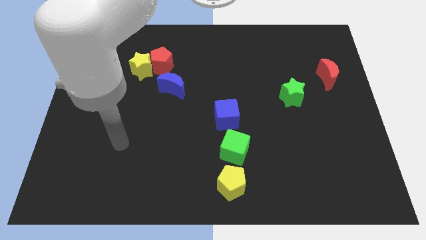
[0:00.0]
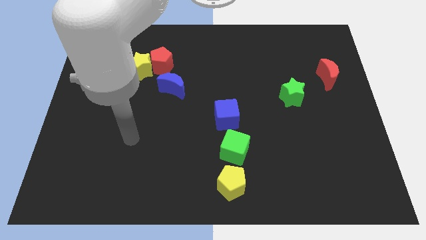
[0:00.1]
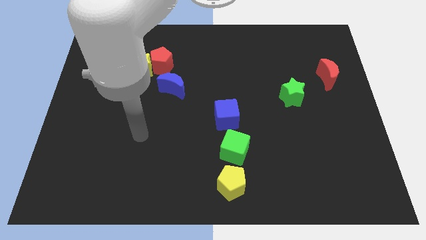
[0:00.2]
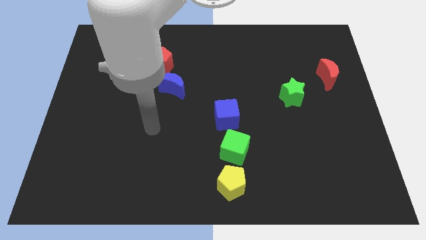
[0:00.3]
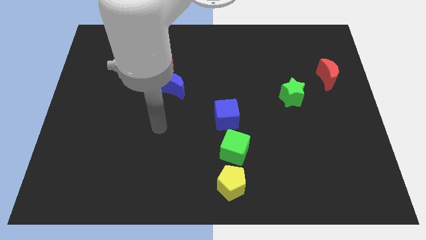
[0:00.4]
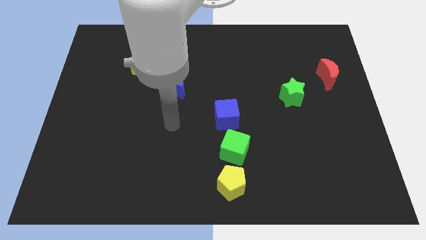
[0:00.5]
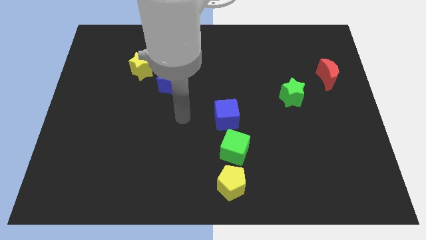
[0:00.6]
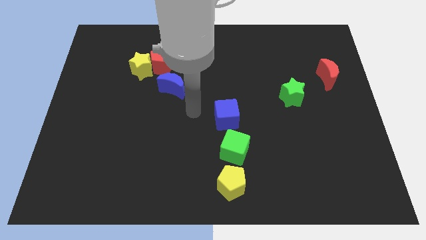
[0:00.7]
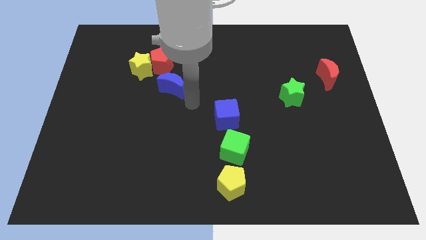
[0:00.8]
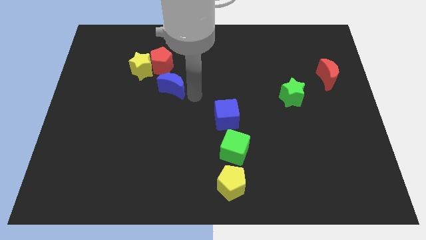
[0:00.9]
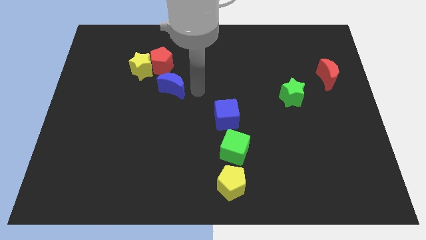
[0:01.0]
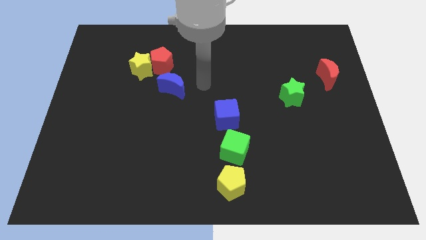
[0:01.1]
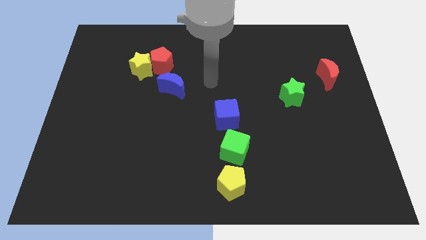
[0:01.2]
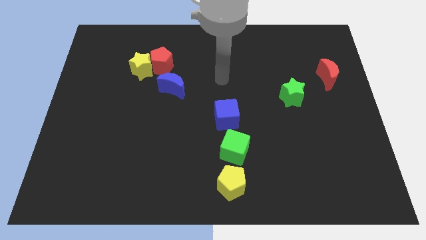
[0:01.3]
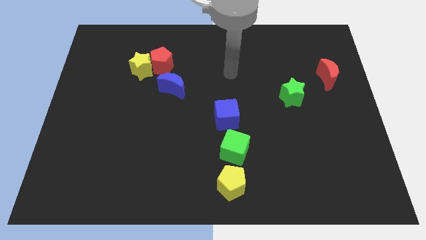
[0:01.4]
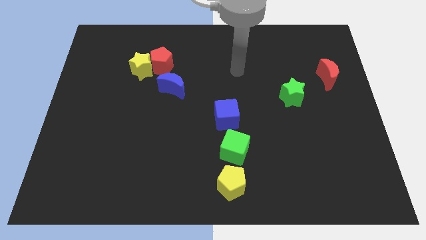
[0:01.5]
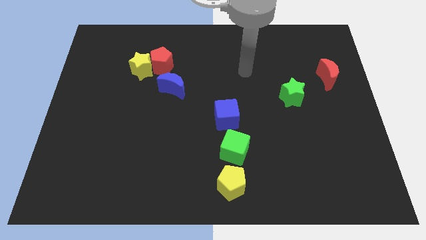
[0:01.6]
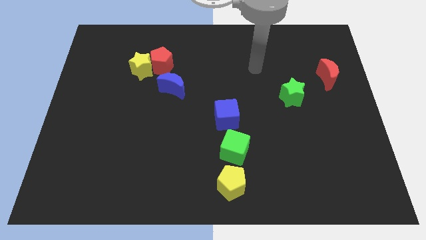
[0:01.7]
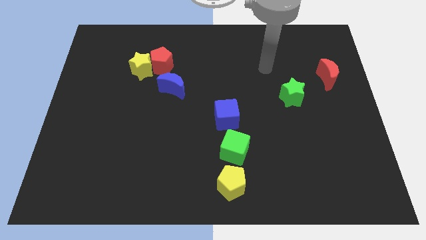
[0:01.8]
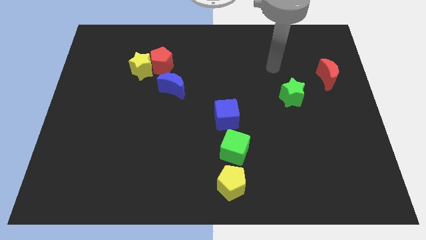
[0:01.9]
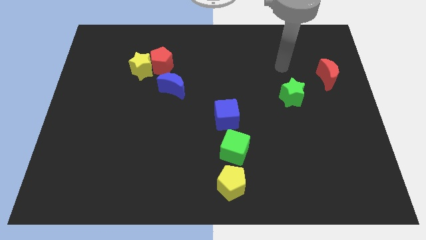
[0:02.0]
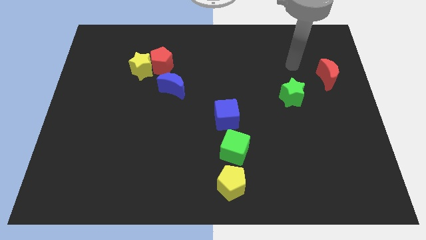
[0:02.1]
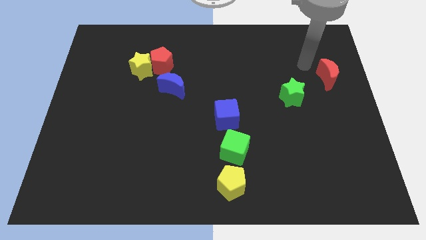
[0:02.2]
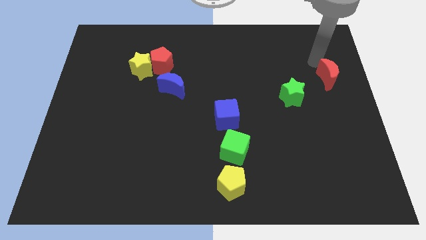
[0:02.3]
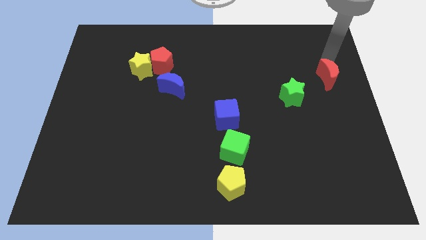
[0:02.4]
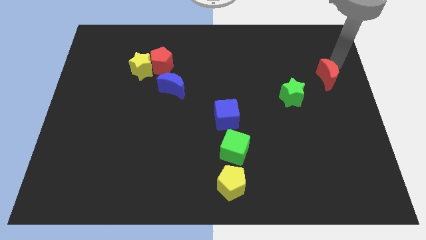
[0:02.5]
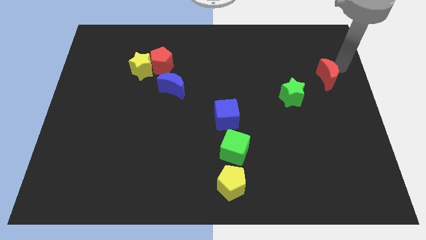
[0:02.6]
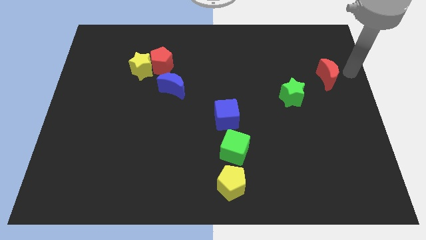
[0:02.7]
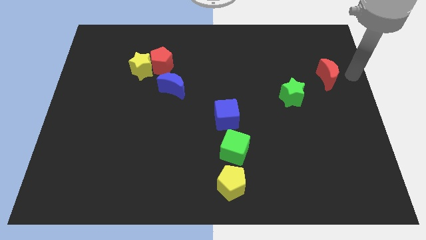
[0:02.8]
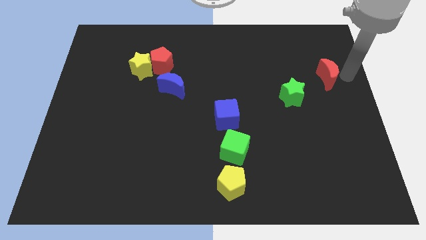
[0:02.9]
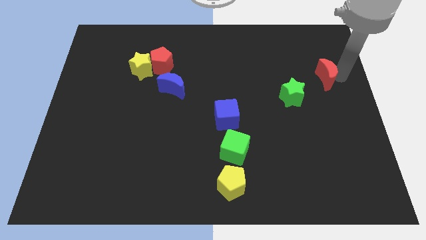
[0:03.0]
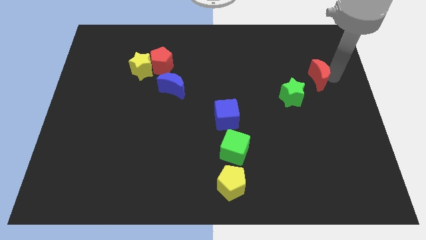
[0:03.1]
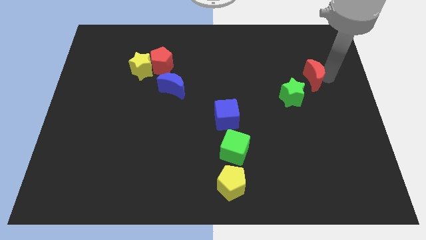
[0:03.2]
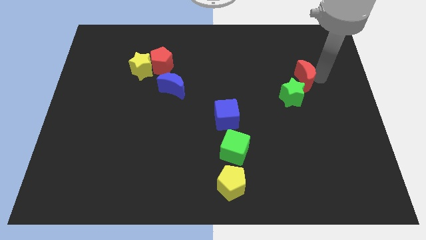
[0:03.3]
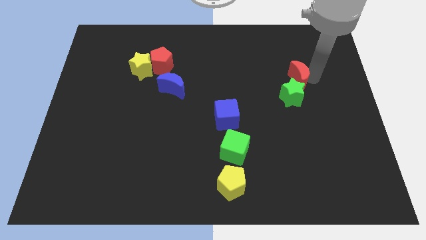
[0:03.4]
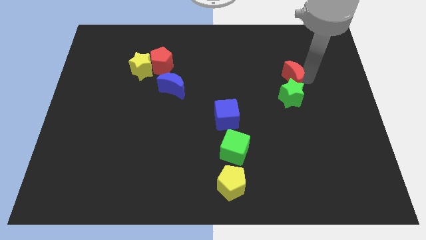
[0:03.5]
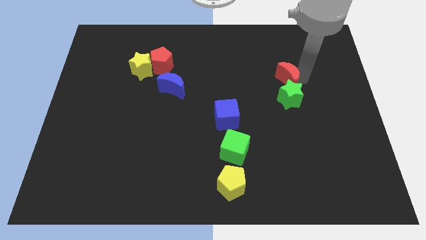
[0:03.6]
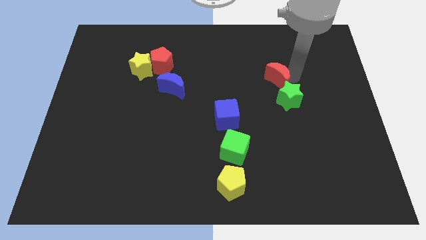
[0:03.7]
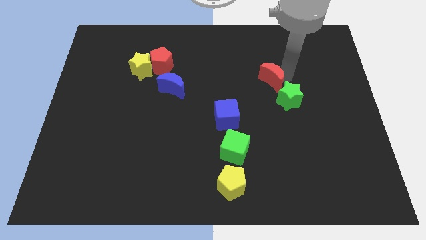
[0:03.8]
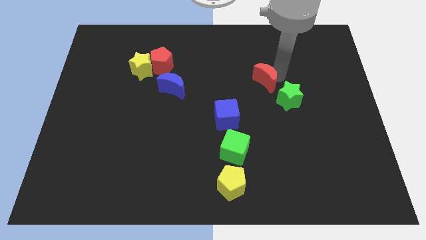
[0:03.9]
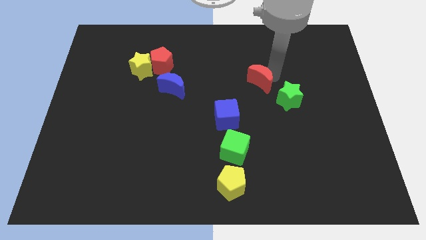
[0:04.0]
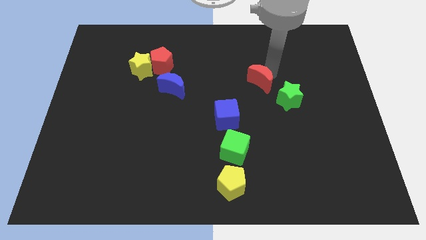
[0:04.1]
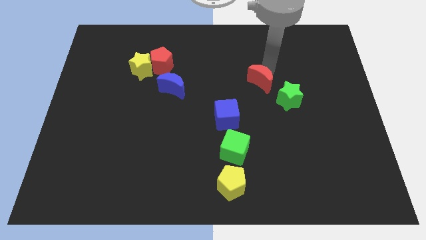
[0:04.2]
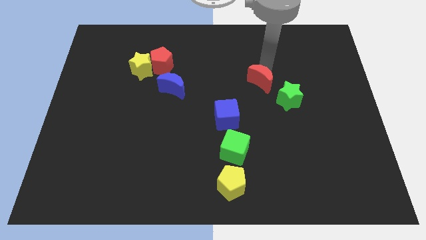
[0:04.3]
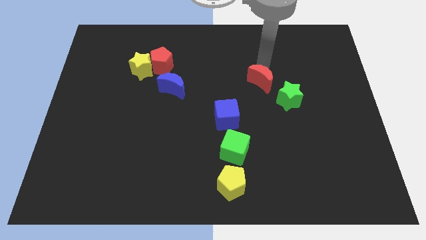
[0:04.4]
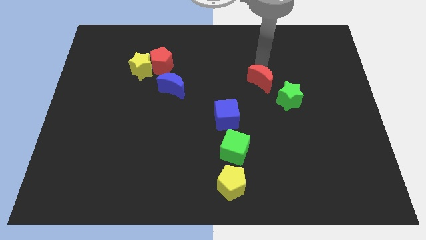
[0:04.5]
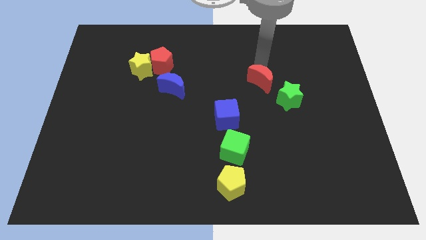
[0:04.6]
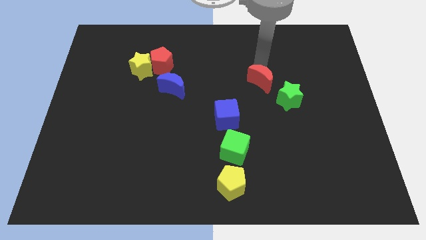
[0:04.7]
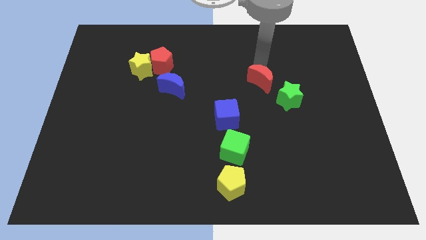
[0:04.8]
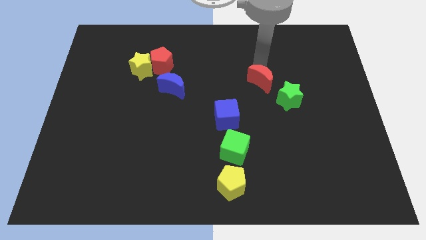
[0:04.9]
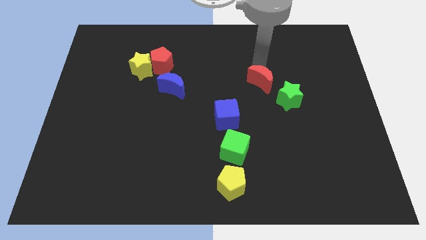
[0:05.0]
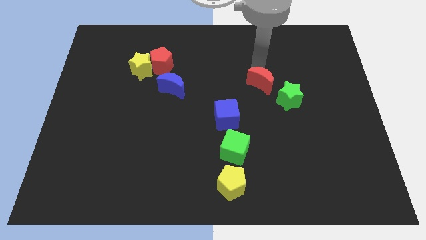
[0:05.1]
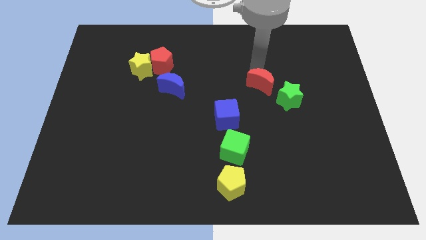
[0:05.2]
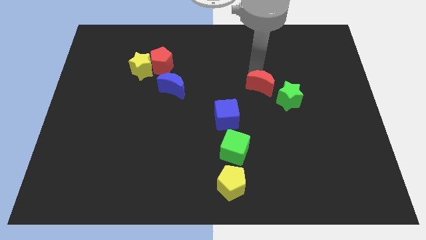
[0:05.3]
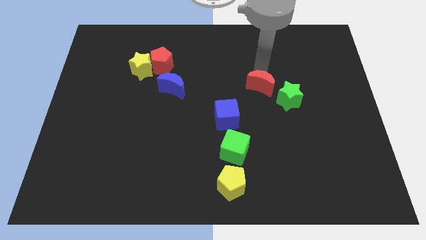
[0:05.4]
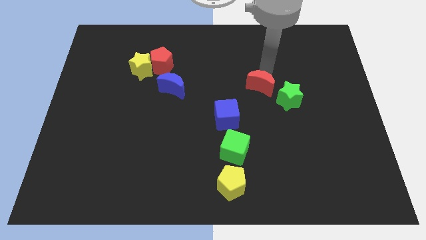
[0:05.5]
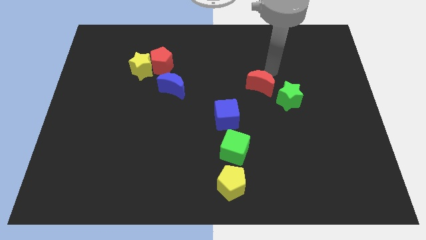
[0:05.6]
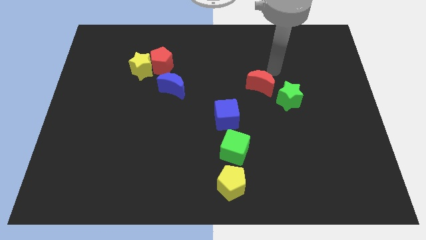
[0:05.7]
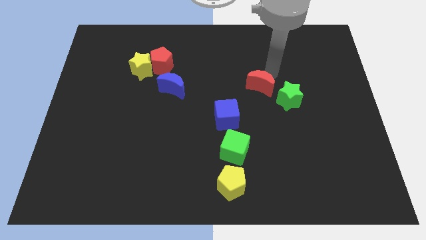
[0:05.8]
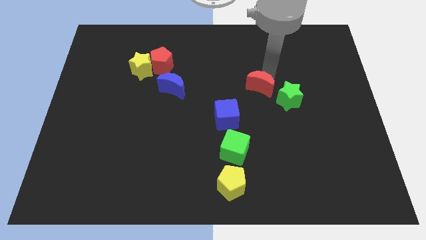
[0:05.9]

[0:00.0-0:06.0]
move the red moon diagonally up and to the right of the blue cube

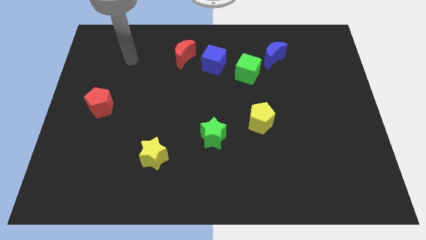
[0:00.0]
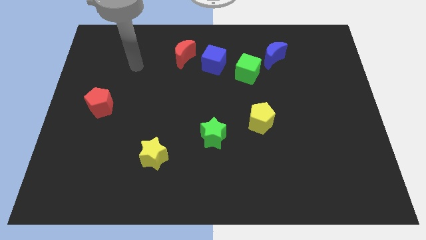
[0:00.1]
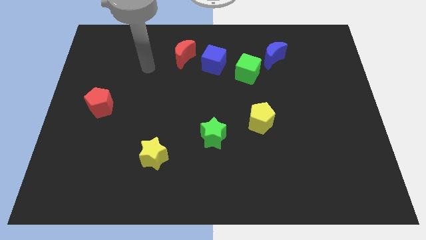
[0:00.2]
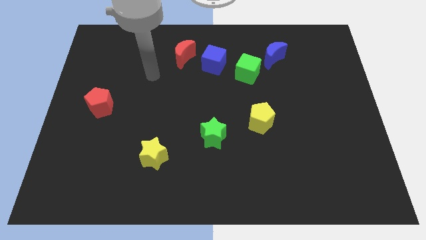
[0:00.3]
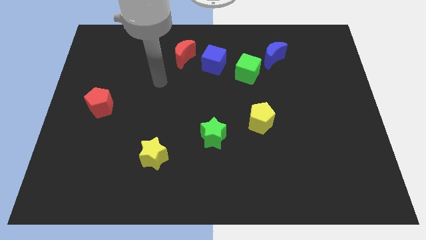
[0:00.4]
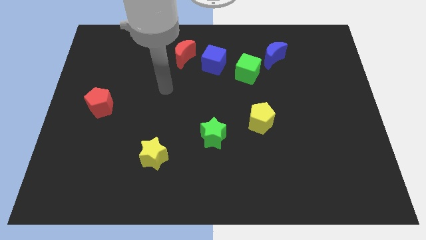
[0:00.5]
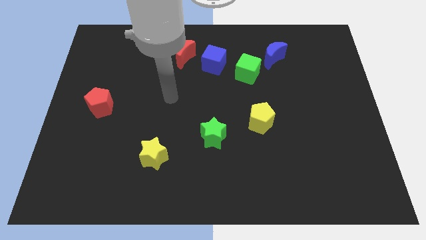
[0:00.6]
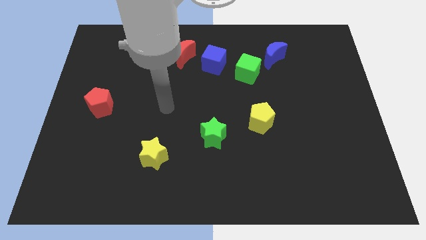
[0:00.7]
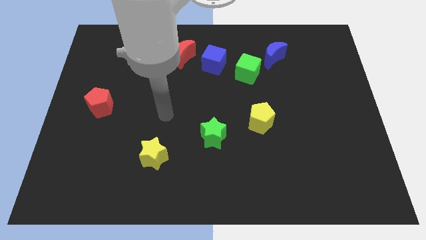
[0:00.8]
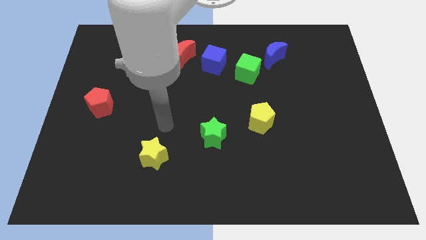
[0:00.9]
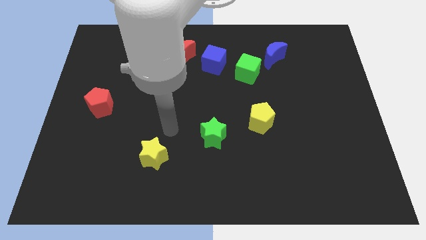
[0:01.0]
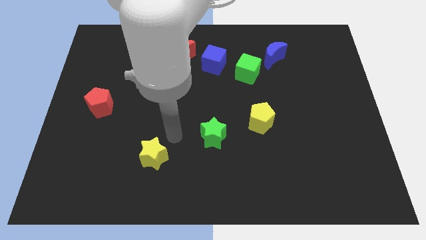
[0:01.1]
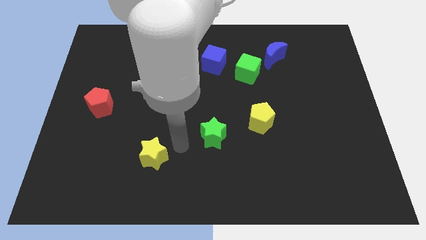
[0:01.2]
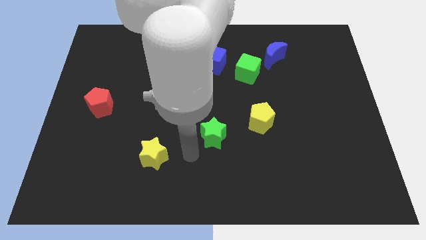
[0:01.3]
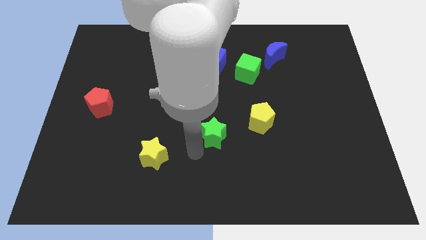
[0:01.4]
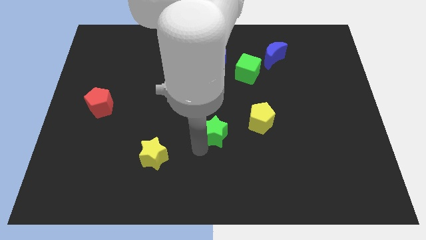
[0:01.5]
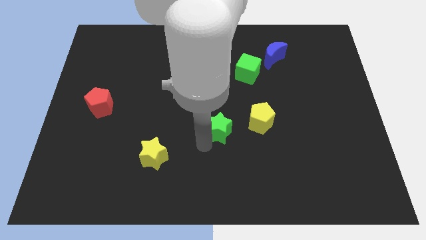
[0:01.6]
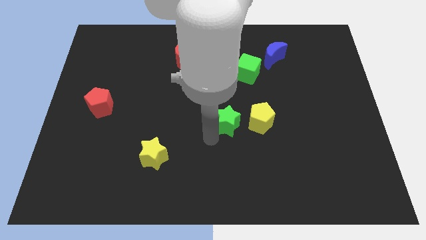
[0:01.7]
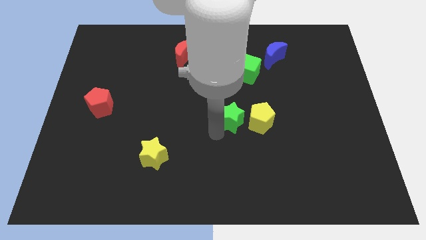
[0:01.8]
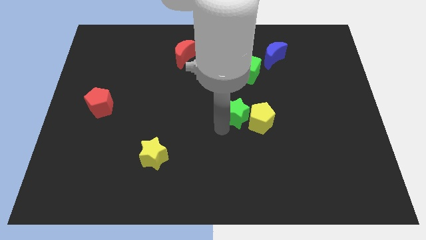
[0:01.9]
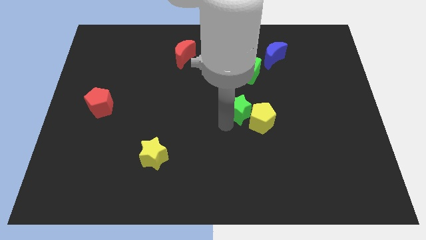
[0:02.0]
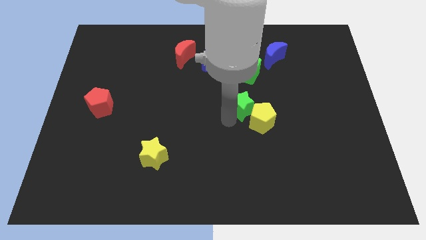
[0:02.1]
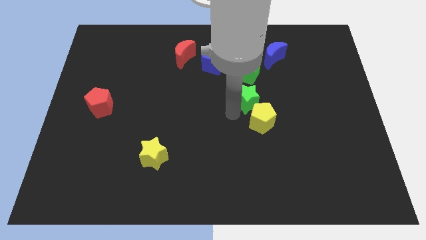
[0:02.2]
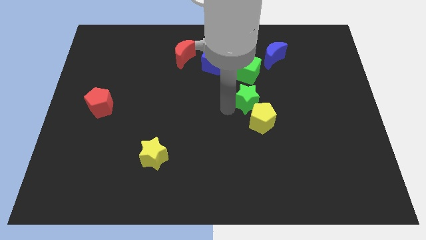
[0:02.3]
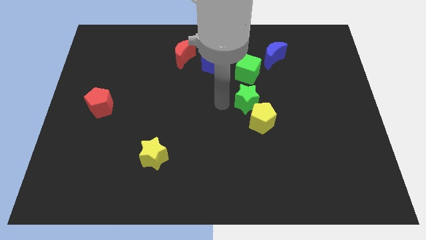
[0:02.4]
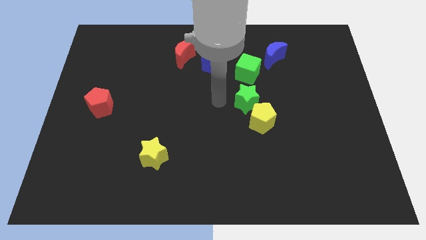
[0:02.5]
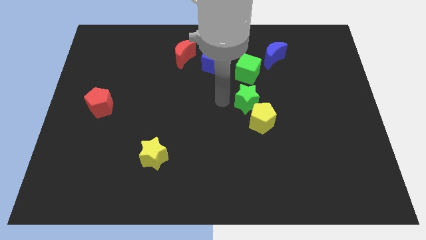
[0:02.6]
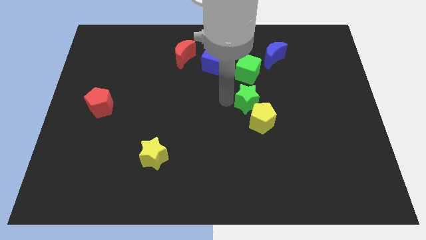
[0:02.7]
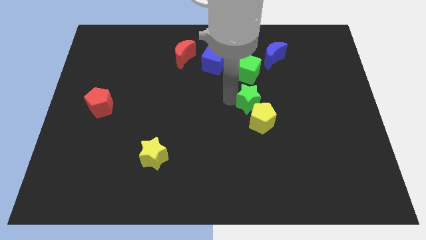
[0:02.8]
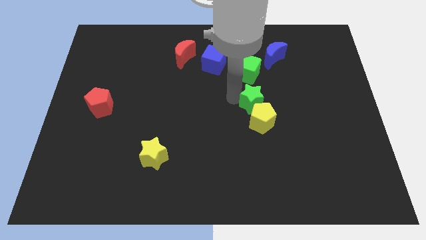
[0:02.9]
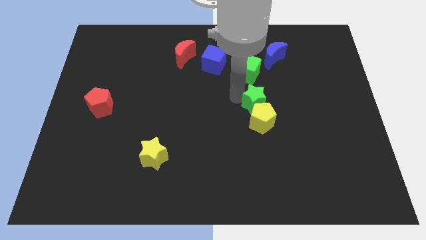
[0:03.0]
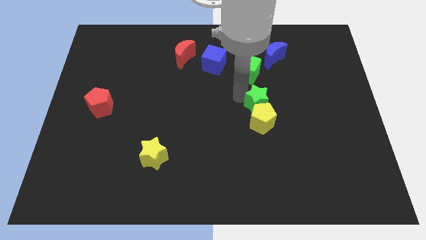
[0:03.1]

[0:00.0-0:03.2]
push the green star to the top right side of the yellow pentagon
